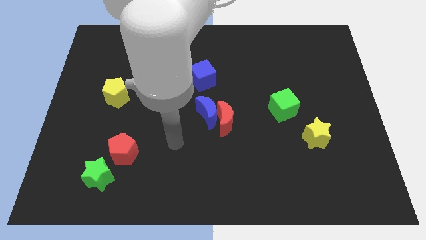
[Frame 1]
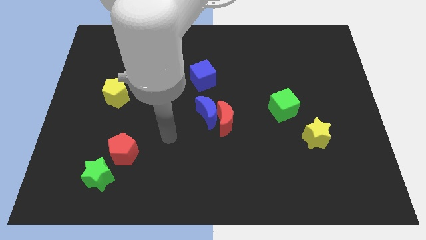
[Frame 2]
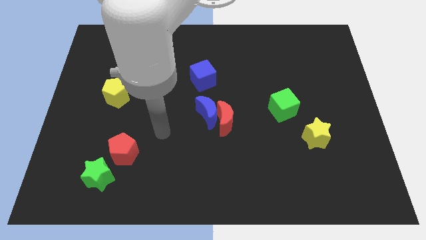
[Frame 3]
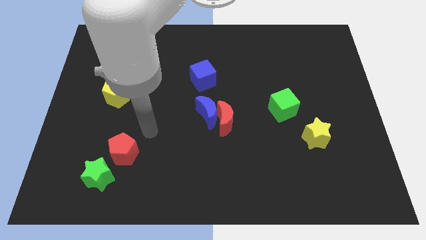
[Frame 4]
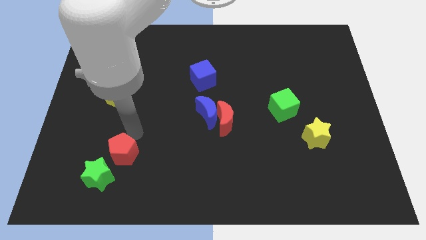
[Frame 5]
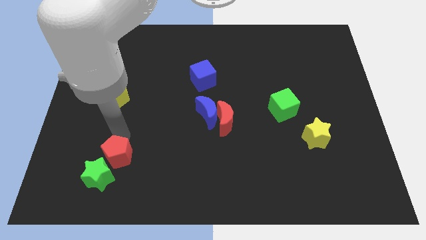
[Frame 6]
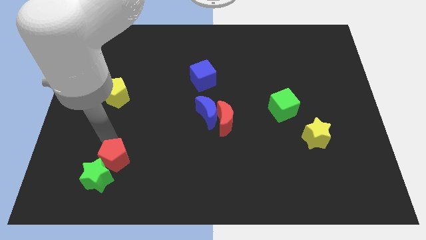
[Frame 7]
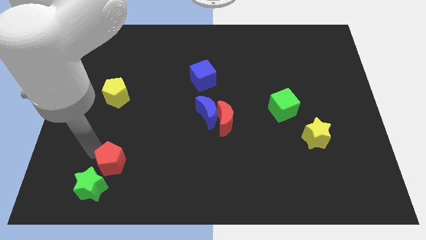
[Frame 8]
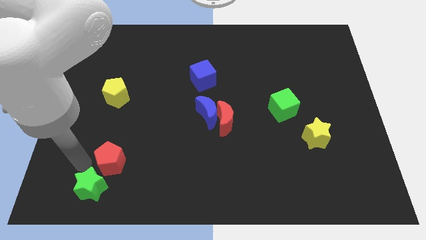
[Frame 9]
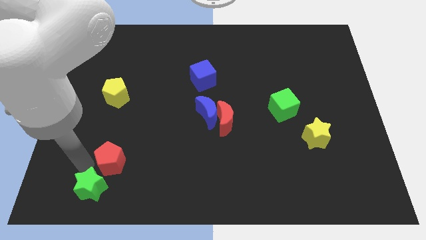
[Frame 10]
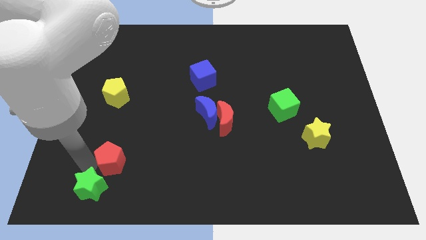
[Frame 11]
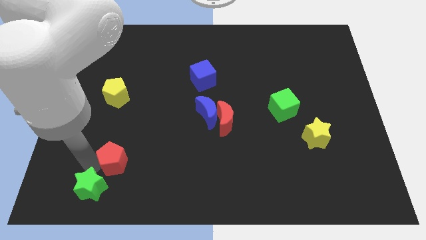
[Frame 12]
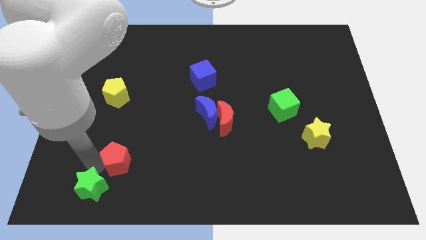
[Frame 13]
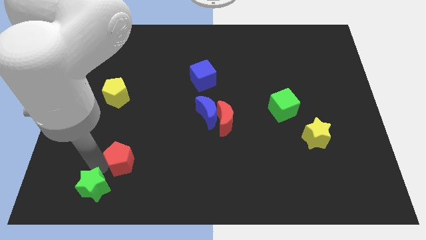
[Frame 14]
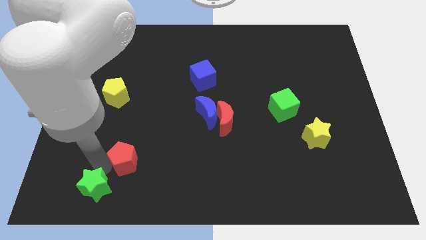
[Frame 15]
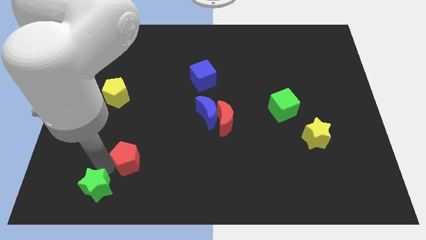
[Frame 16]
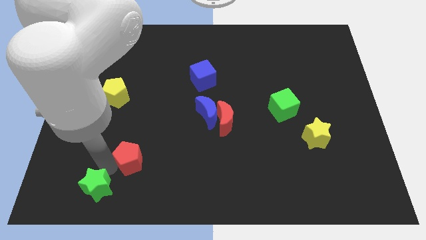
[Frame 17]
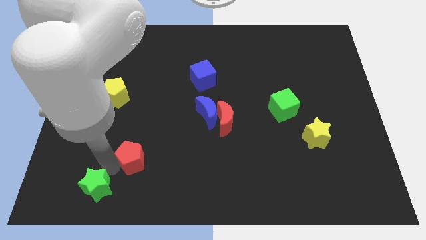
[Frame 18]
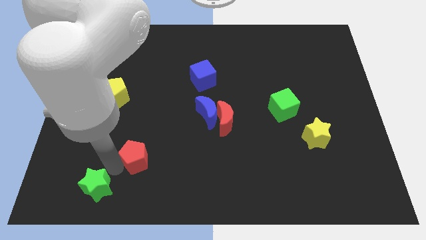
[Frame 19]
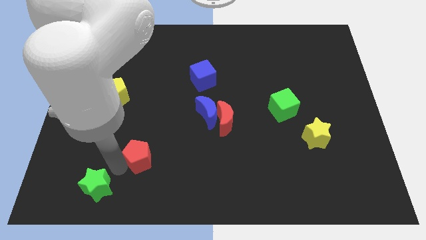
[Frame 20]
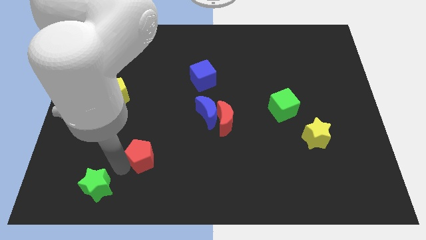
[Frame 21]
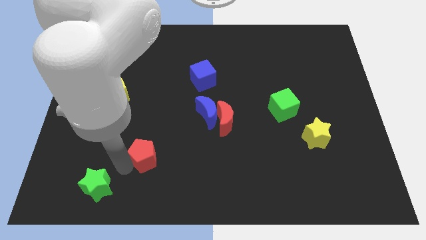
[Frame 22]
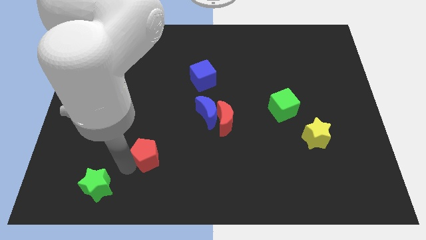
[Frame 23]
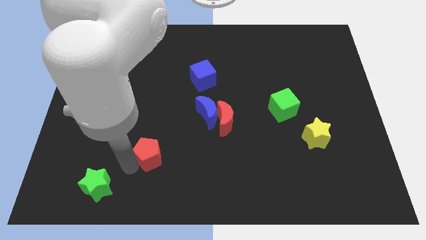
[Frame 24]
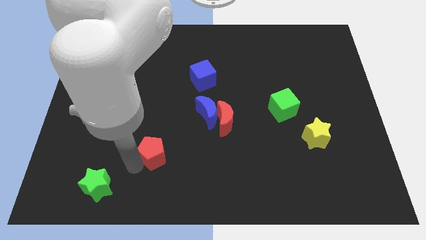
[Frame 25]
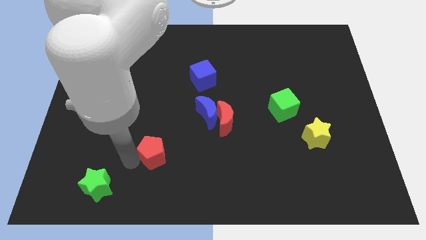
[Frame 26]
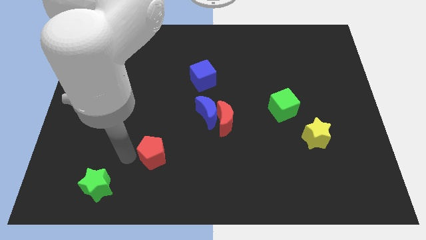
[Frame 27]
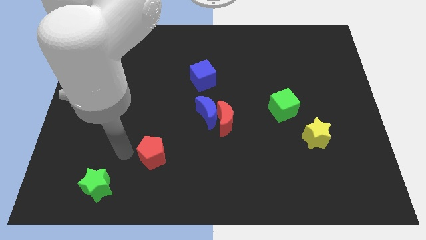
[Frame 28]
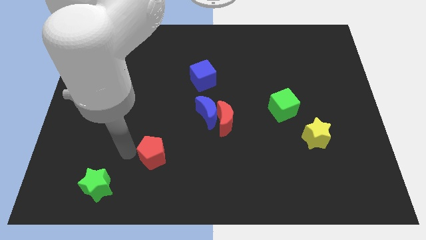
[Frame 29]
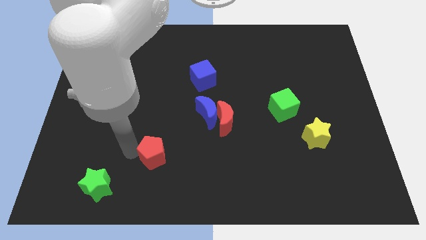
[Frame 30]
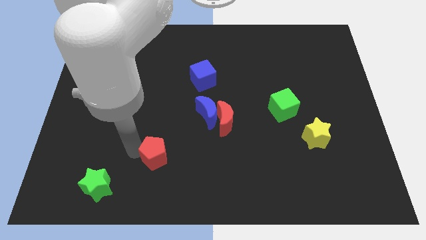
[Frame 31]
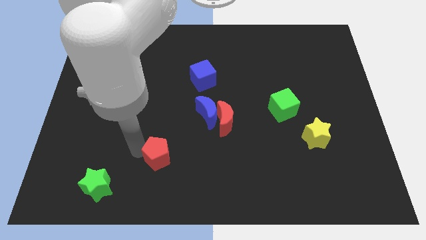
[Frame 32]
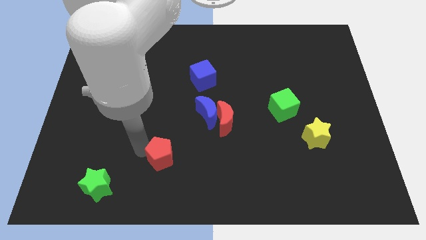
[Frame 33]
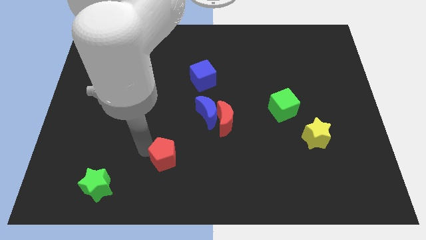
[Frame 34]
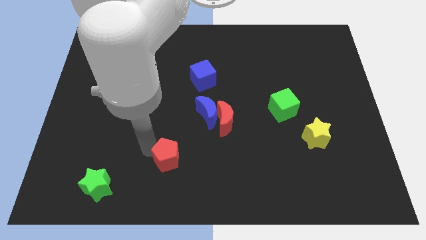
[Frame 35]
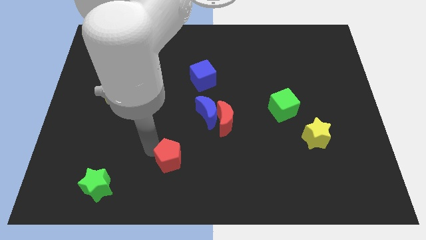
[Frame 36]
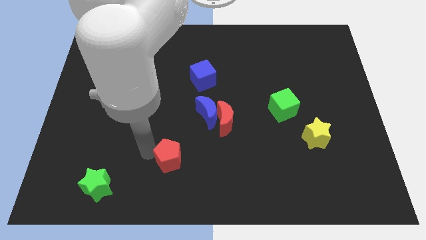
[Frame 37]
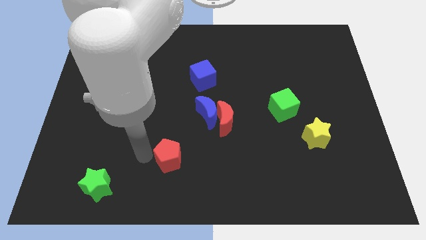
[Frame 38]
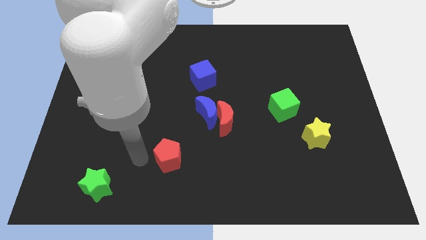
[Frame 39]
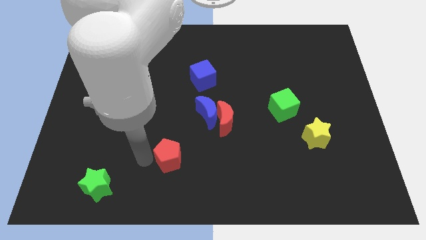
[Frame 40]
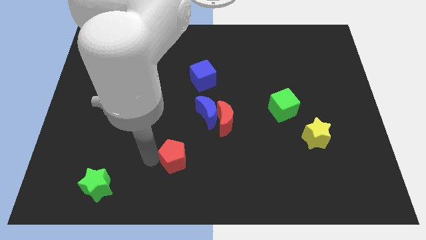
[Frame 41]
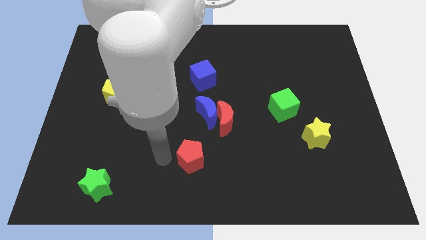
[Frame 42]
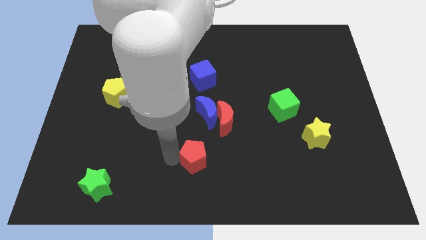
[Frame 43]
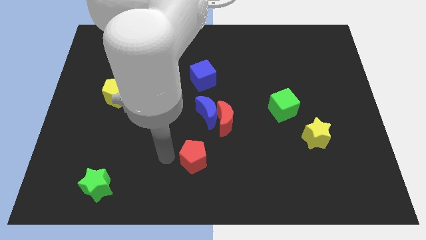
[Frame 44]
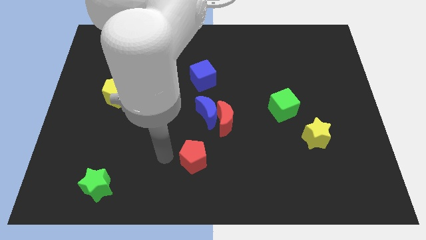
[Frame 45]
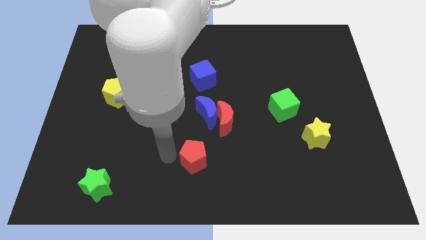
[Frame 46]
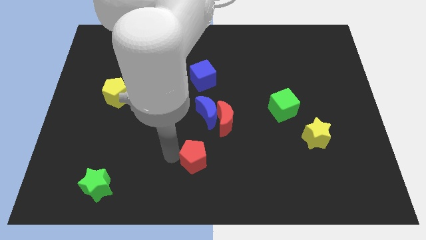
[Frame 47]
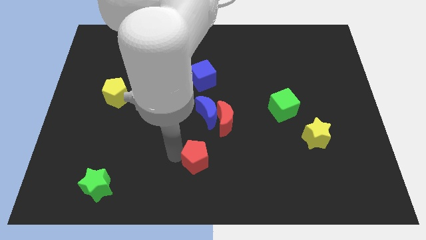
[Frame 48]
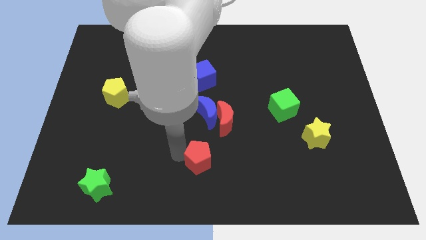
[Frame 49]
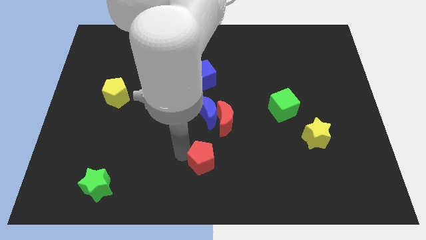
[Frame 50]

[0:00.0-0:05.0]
move the red pentagon below the red moon

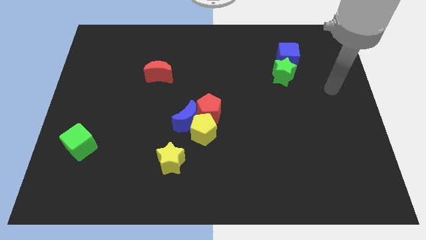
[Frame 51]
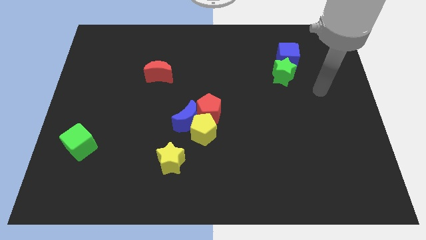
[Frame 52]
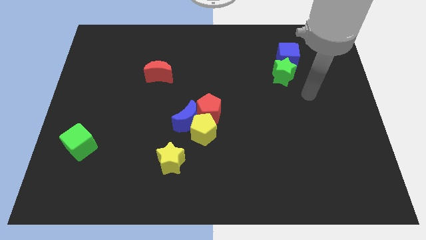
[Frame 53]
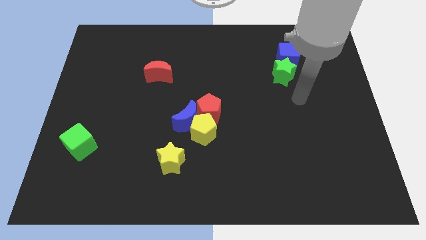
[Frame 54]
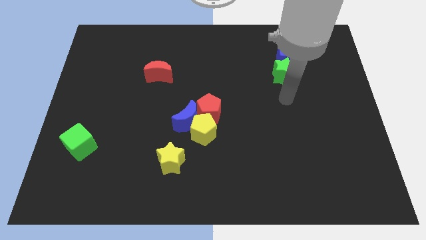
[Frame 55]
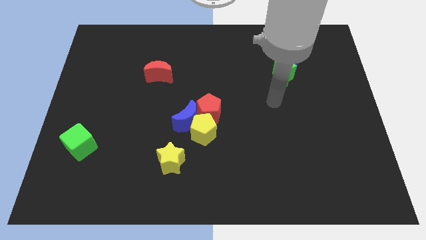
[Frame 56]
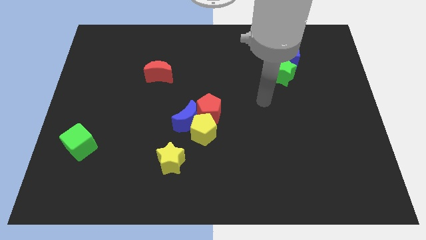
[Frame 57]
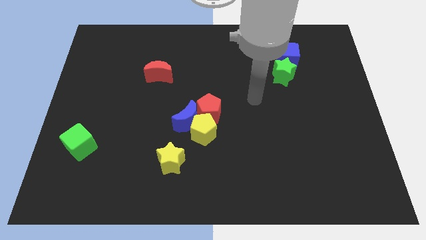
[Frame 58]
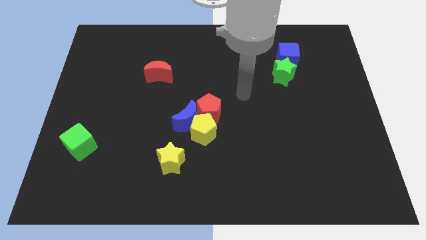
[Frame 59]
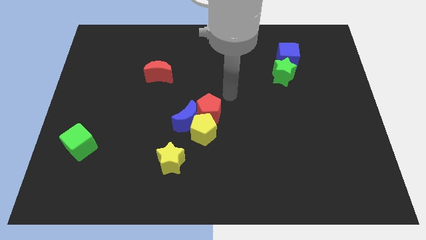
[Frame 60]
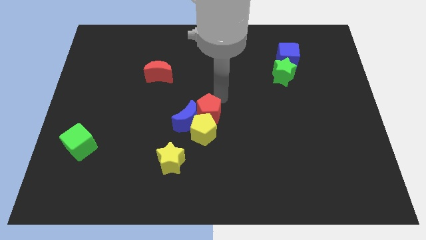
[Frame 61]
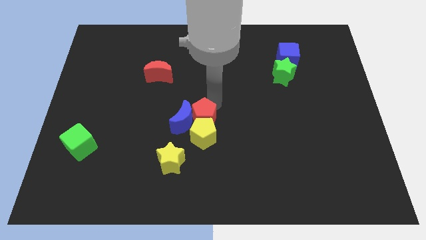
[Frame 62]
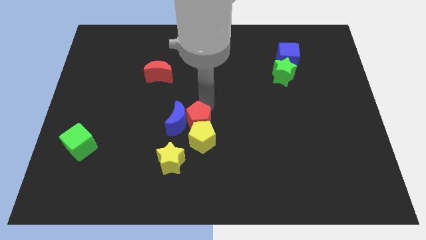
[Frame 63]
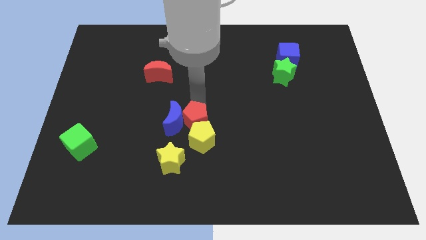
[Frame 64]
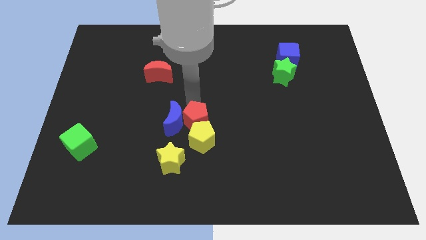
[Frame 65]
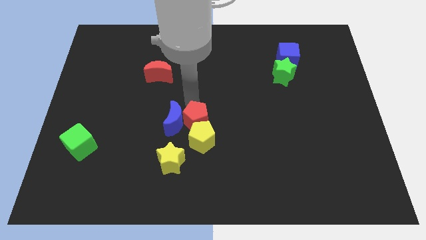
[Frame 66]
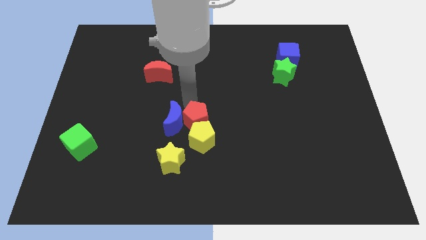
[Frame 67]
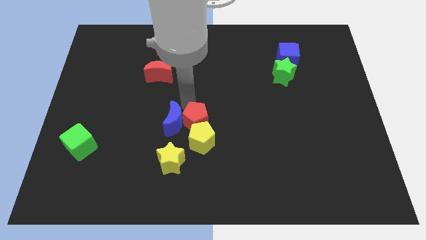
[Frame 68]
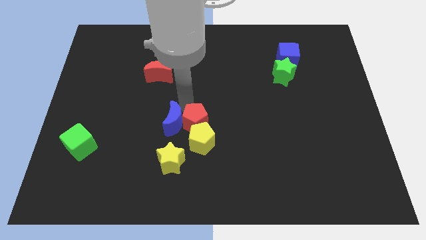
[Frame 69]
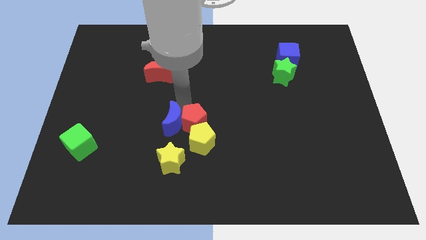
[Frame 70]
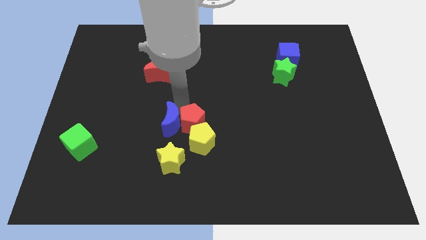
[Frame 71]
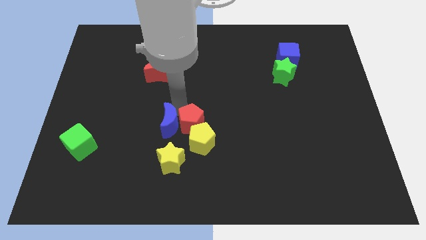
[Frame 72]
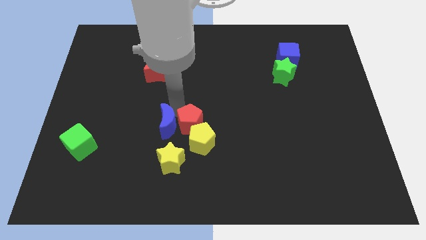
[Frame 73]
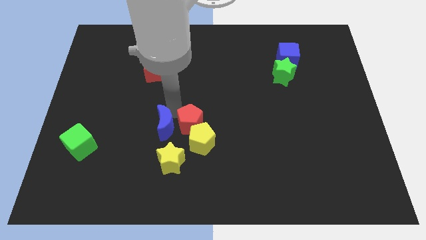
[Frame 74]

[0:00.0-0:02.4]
push the blue moon to the top left side of the yellow star

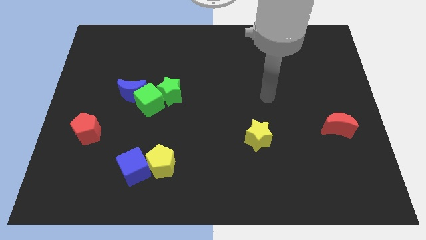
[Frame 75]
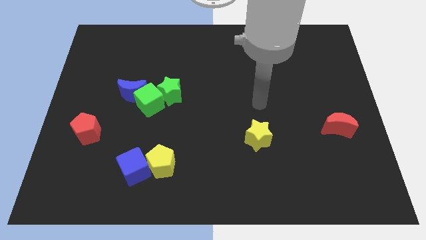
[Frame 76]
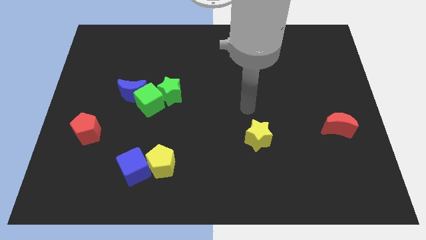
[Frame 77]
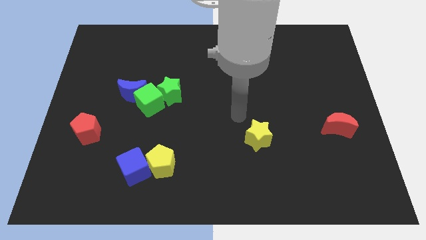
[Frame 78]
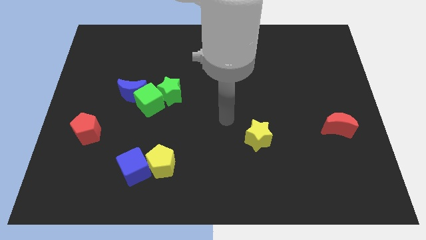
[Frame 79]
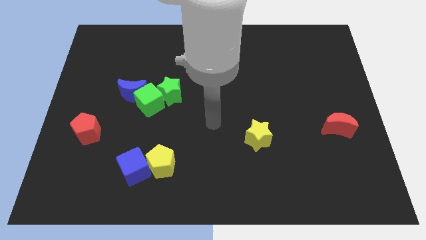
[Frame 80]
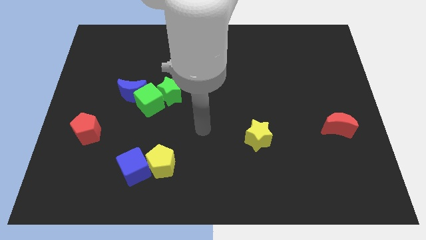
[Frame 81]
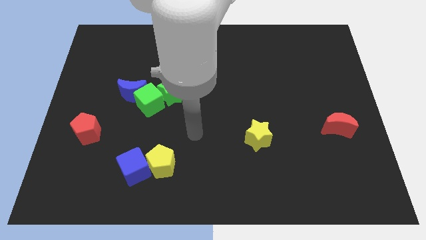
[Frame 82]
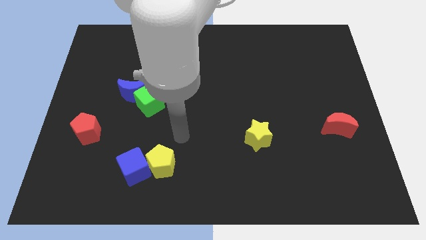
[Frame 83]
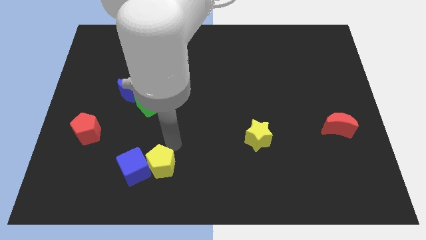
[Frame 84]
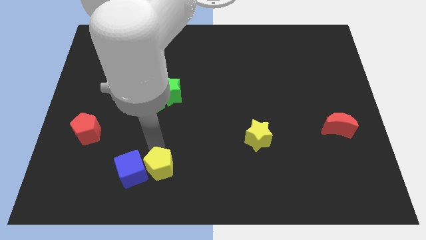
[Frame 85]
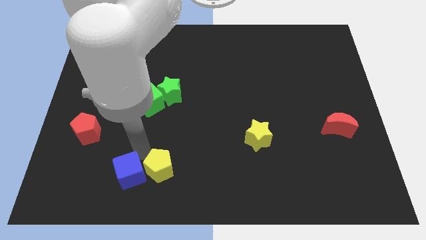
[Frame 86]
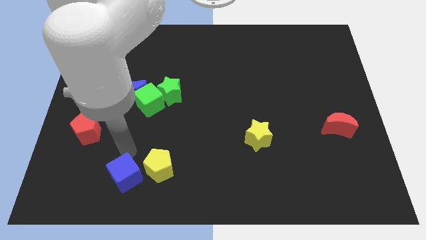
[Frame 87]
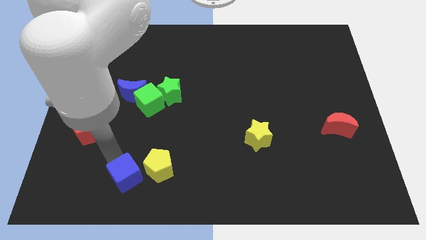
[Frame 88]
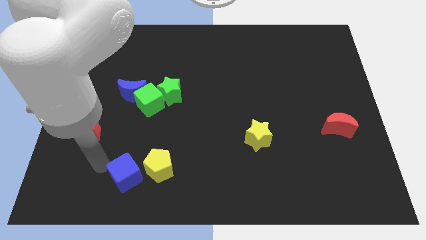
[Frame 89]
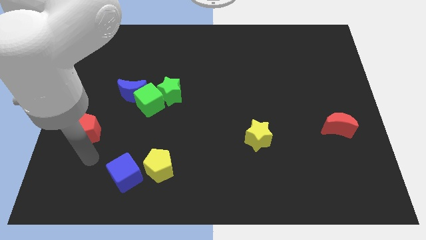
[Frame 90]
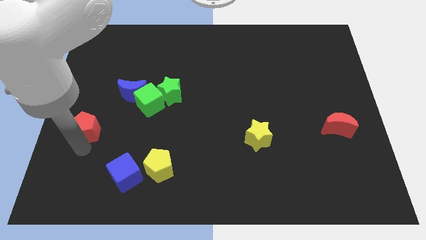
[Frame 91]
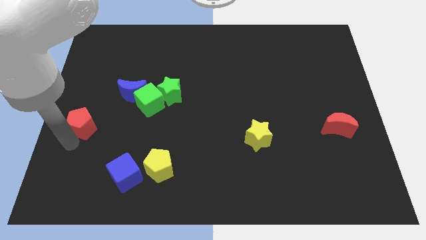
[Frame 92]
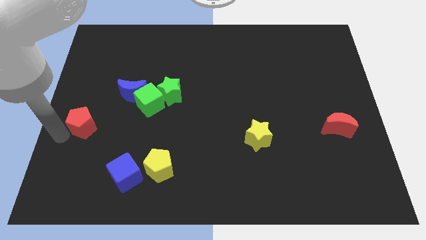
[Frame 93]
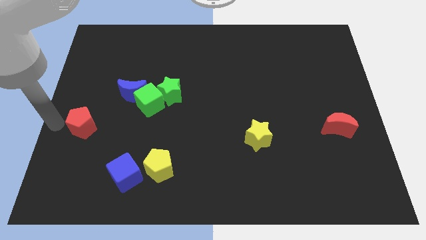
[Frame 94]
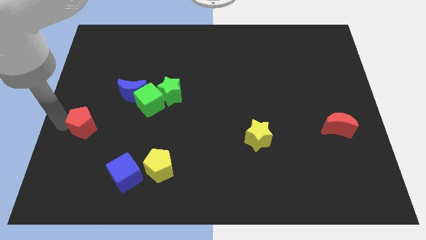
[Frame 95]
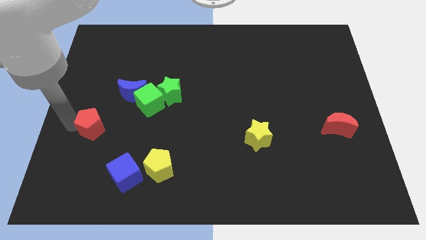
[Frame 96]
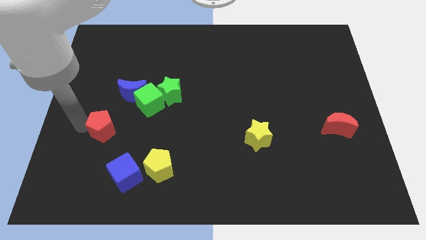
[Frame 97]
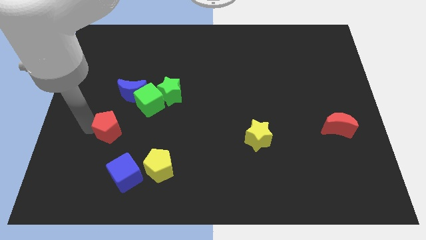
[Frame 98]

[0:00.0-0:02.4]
move the red pentagon to the bottom of the blue moon
